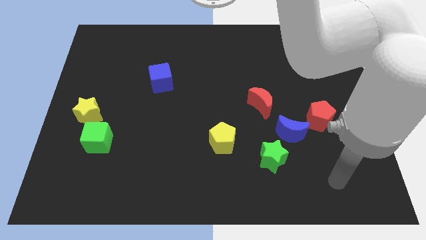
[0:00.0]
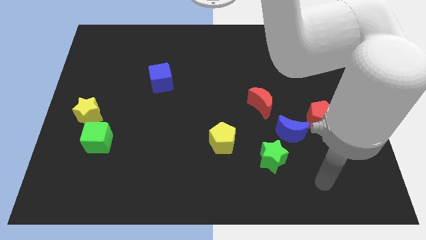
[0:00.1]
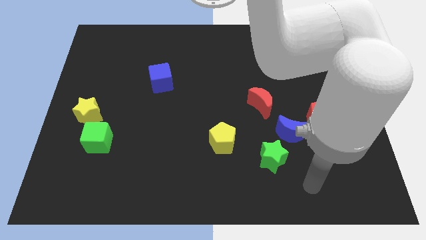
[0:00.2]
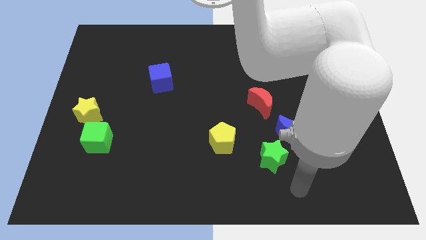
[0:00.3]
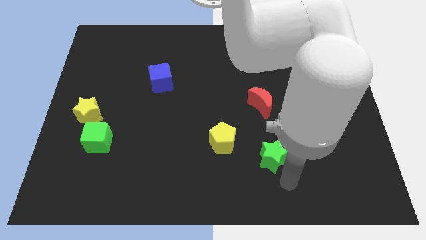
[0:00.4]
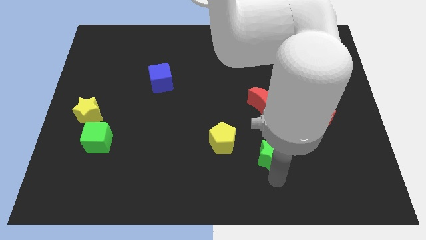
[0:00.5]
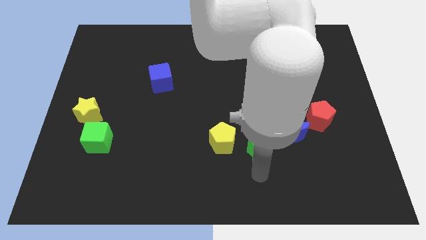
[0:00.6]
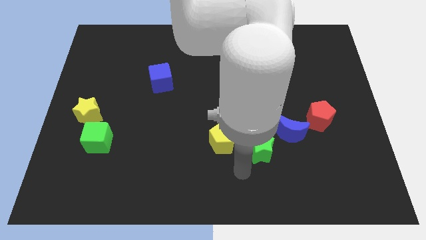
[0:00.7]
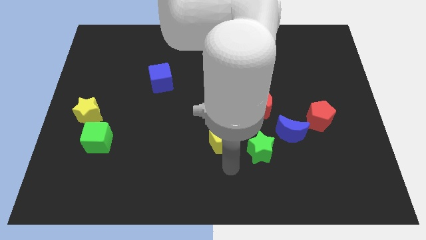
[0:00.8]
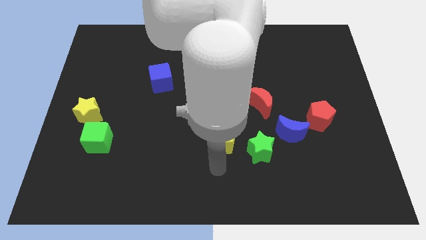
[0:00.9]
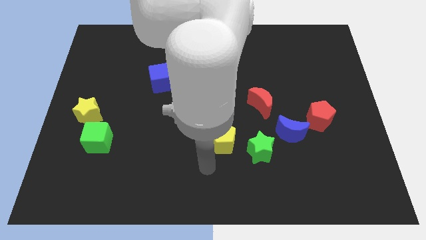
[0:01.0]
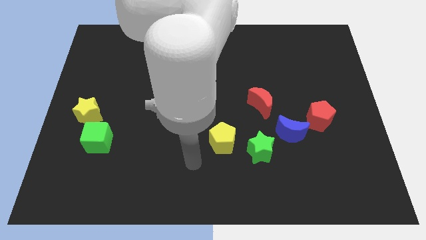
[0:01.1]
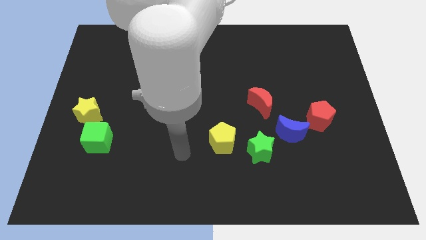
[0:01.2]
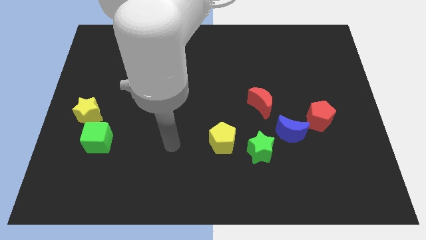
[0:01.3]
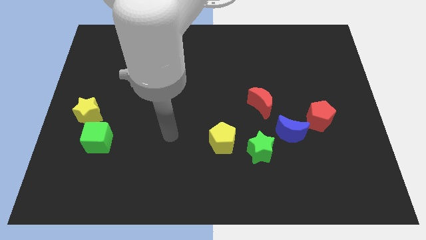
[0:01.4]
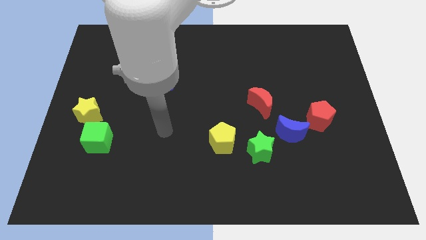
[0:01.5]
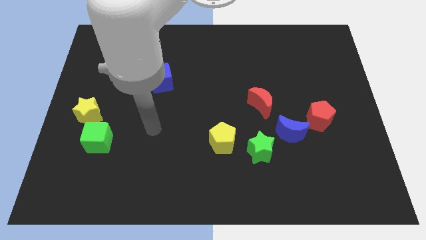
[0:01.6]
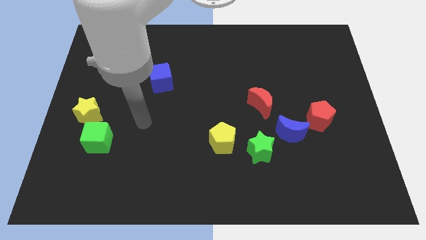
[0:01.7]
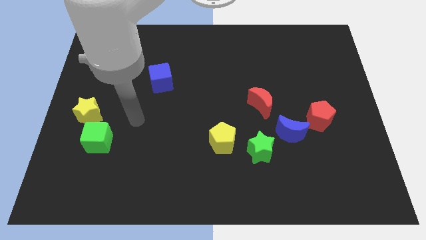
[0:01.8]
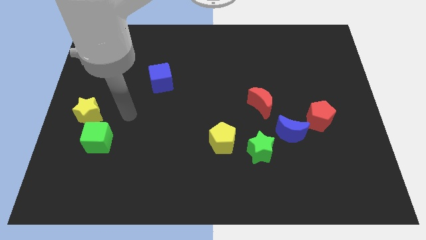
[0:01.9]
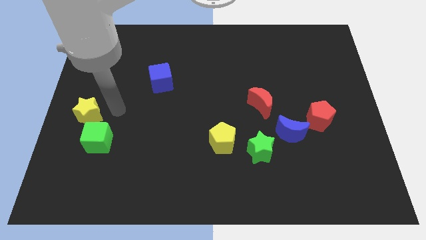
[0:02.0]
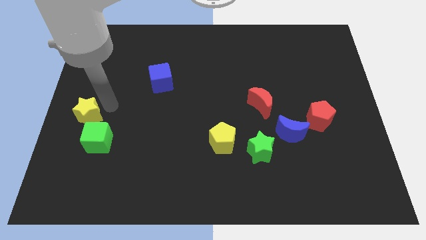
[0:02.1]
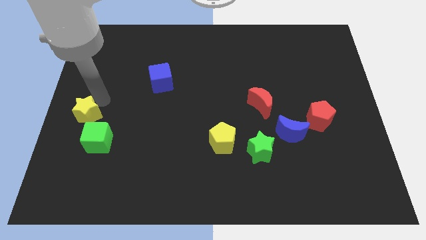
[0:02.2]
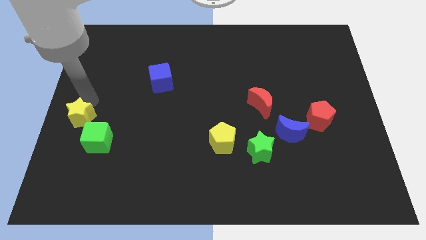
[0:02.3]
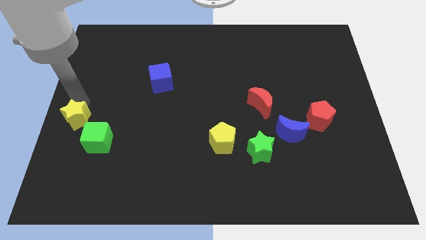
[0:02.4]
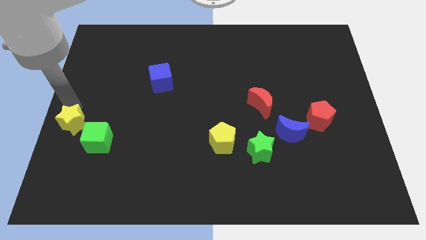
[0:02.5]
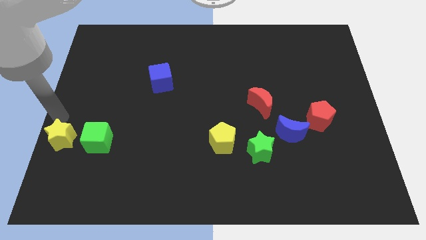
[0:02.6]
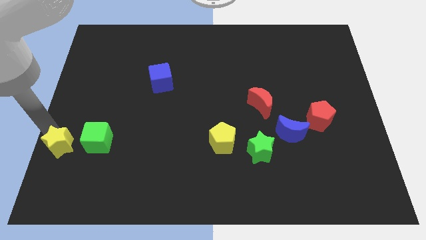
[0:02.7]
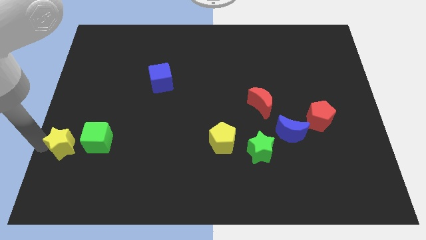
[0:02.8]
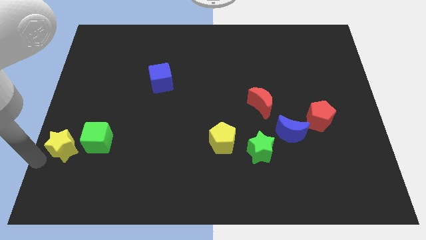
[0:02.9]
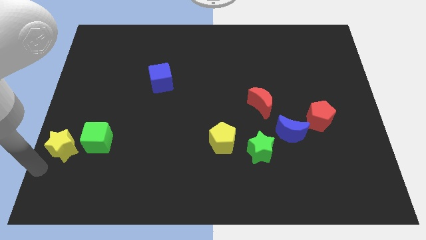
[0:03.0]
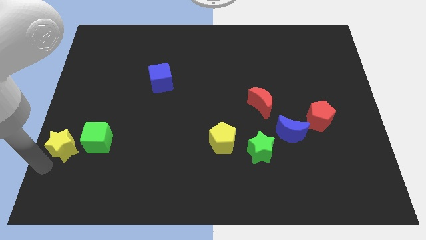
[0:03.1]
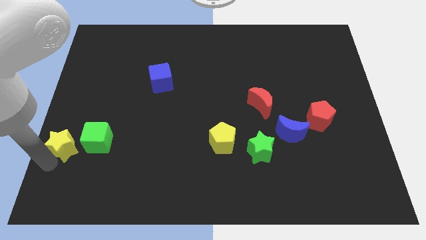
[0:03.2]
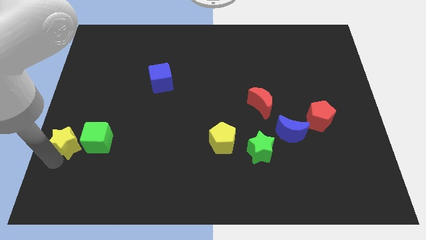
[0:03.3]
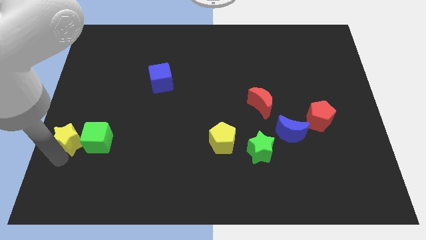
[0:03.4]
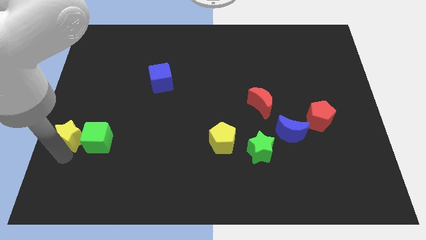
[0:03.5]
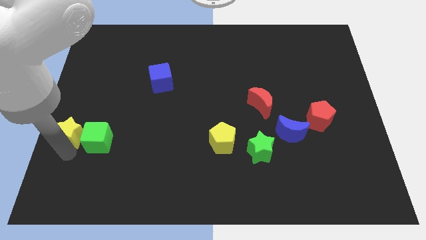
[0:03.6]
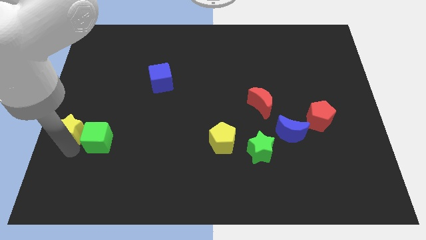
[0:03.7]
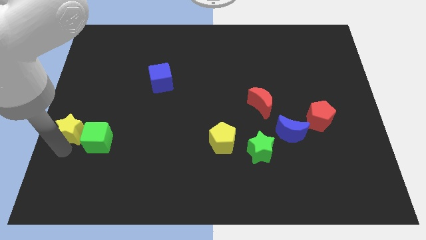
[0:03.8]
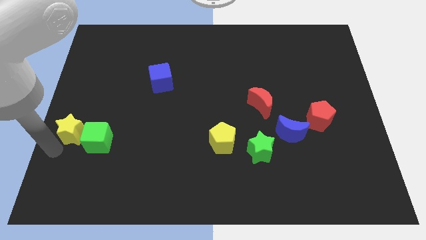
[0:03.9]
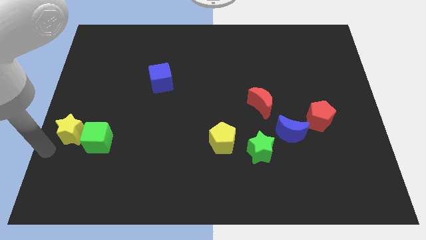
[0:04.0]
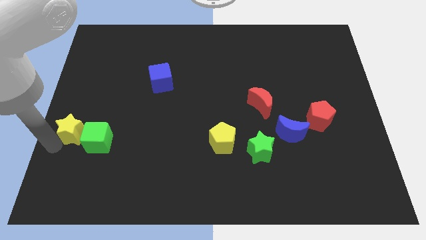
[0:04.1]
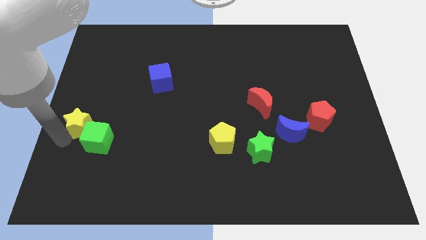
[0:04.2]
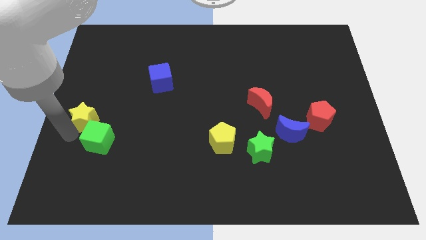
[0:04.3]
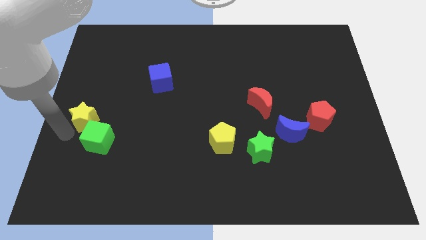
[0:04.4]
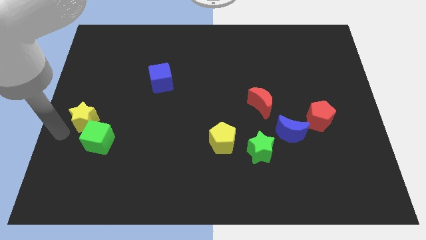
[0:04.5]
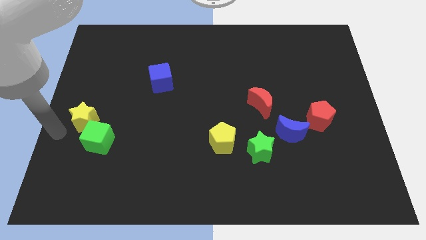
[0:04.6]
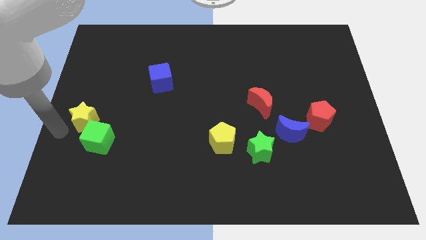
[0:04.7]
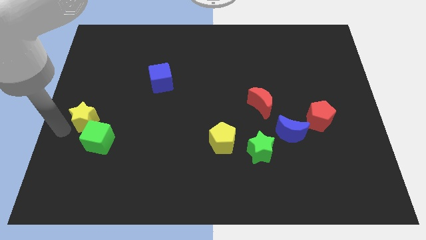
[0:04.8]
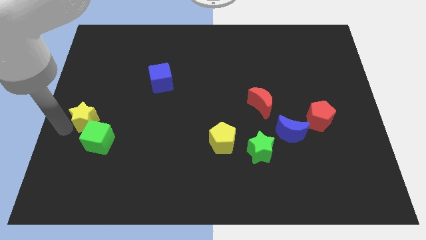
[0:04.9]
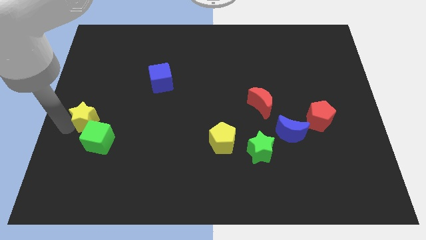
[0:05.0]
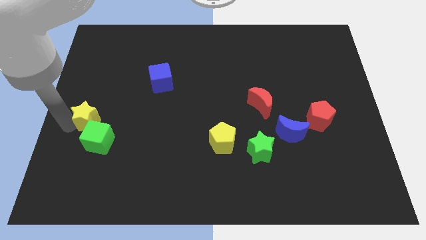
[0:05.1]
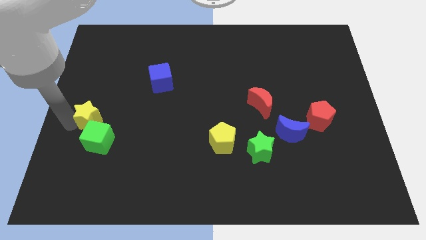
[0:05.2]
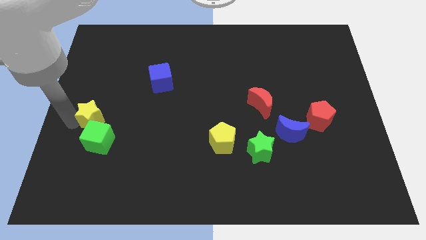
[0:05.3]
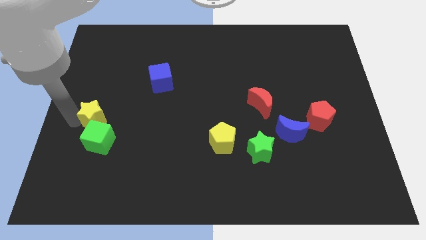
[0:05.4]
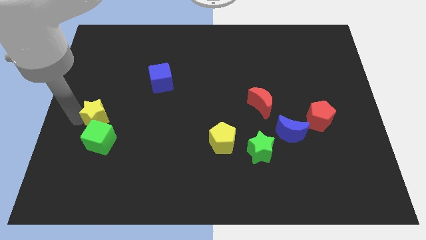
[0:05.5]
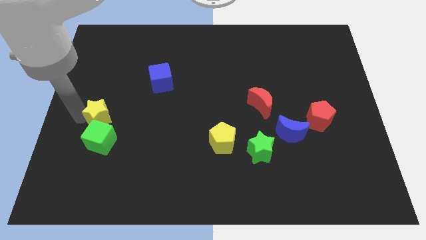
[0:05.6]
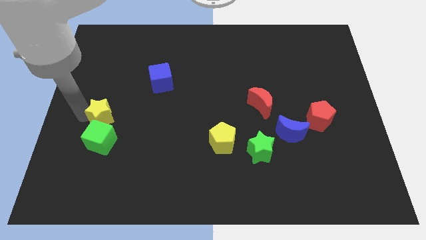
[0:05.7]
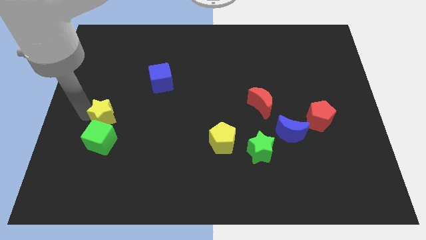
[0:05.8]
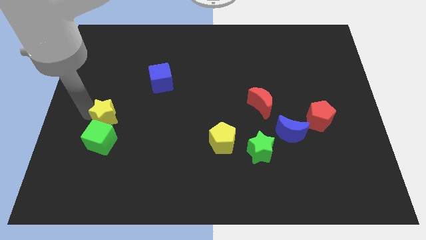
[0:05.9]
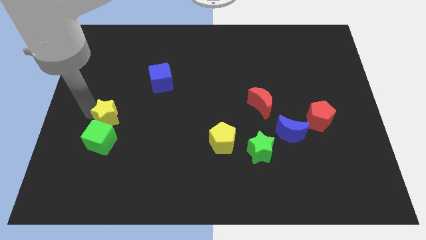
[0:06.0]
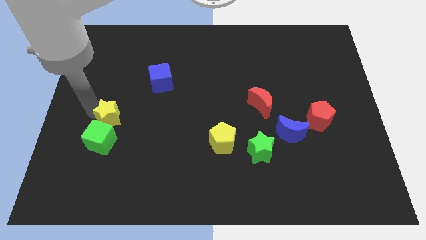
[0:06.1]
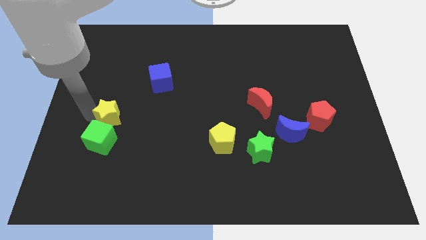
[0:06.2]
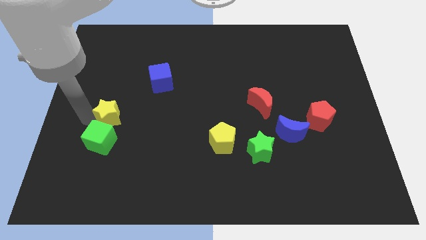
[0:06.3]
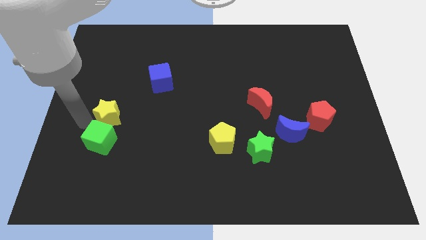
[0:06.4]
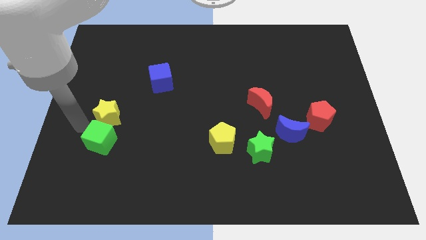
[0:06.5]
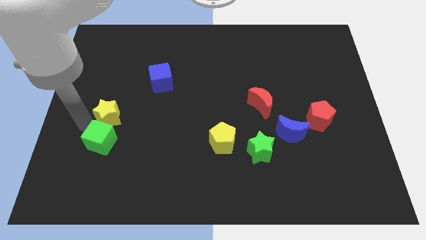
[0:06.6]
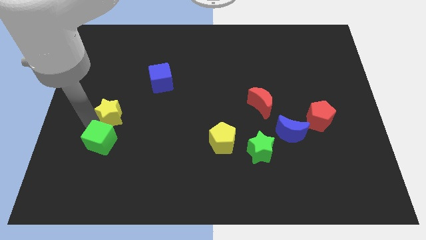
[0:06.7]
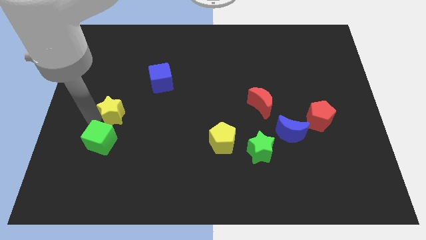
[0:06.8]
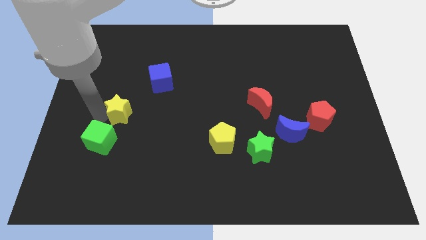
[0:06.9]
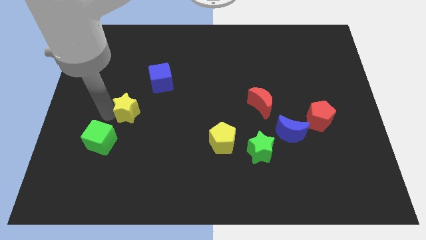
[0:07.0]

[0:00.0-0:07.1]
push the yellow star right a little

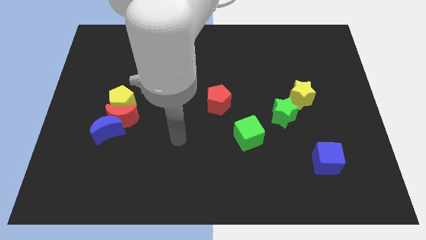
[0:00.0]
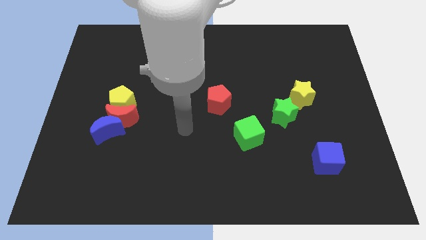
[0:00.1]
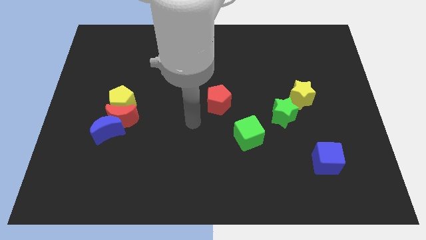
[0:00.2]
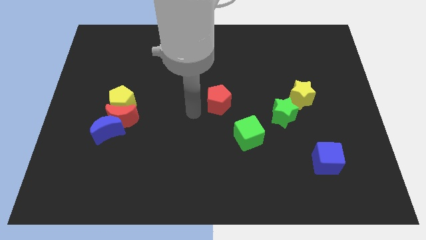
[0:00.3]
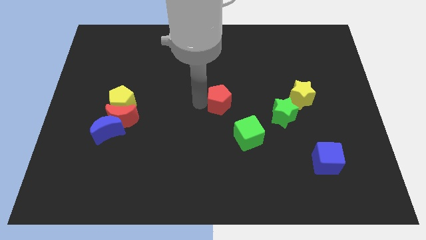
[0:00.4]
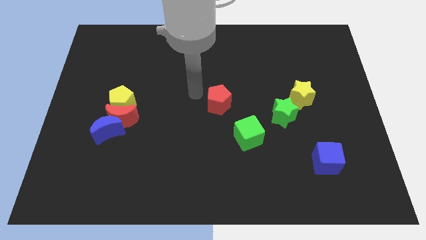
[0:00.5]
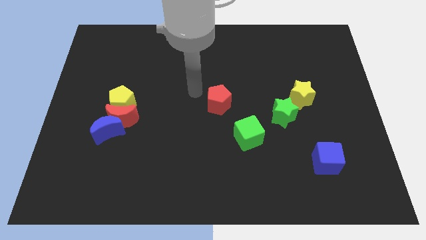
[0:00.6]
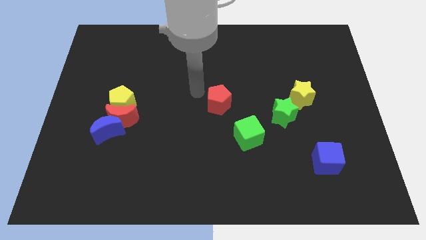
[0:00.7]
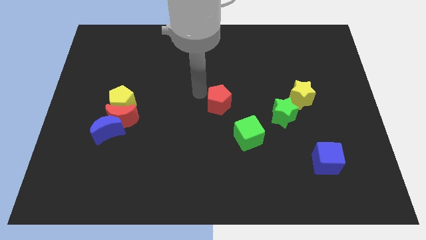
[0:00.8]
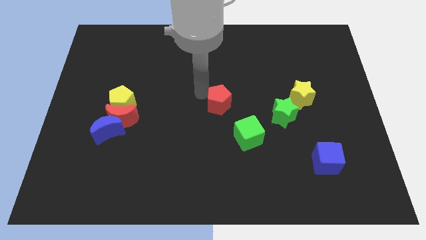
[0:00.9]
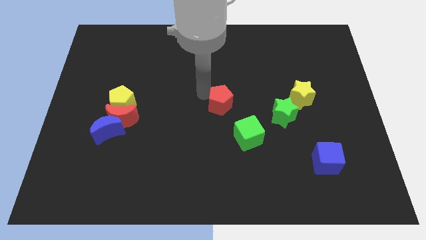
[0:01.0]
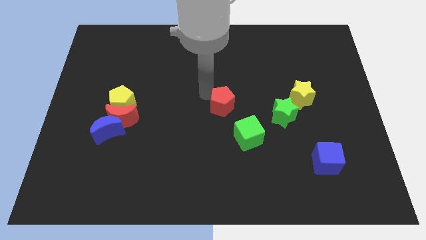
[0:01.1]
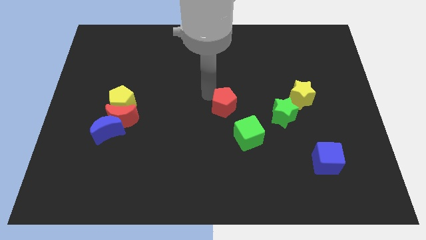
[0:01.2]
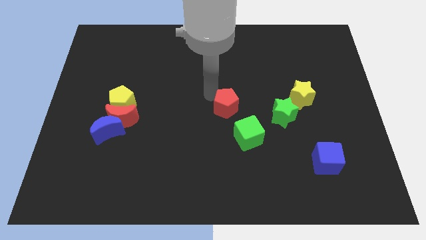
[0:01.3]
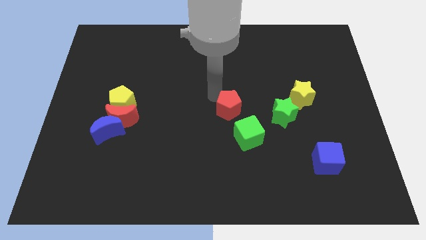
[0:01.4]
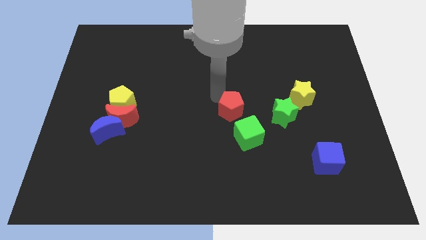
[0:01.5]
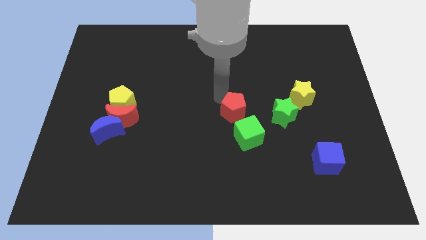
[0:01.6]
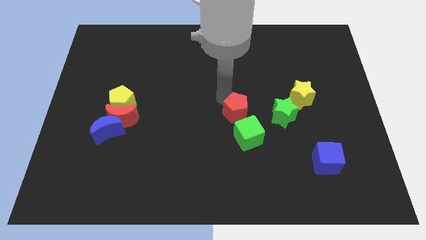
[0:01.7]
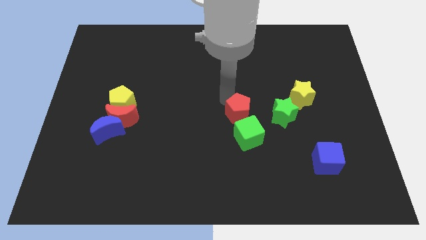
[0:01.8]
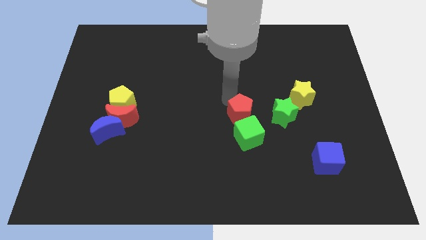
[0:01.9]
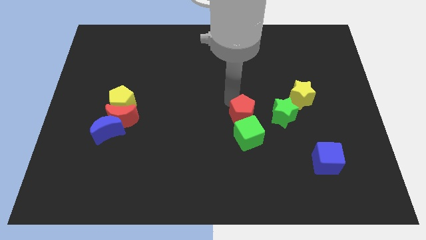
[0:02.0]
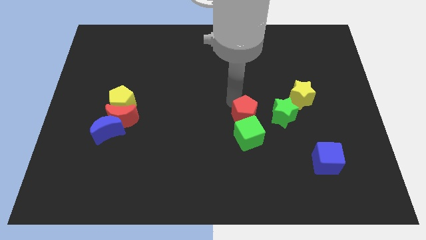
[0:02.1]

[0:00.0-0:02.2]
push the red pentagon slightly downwards and to the right
